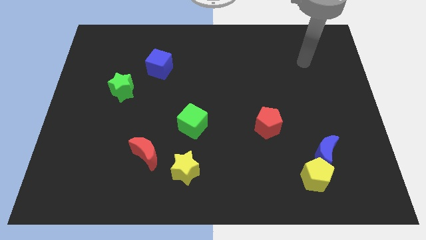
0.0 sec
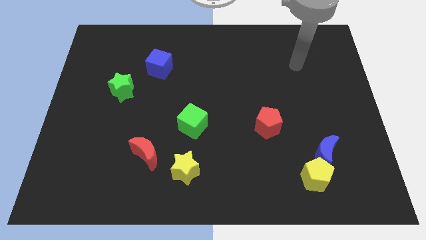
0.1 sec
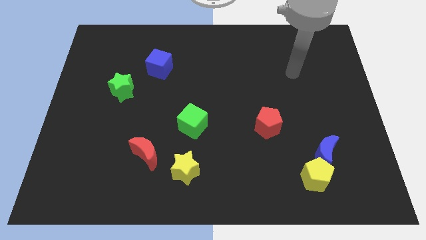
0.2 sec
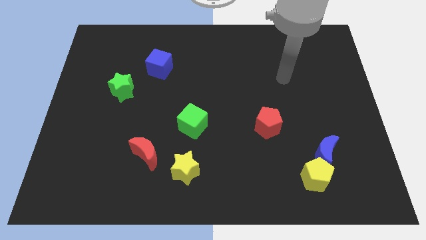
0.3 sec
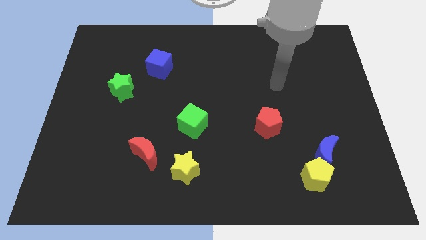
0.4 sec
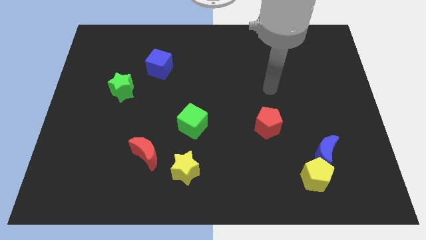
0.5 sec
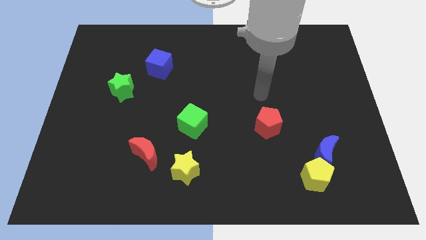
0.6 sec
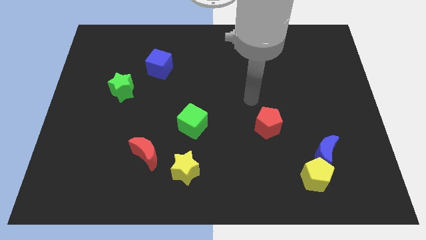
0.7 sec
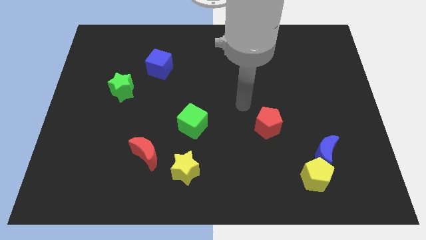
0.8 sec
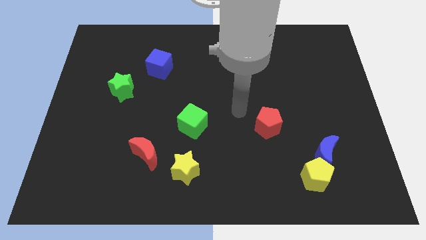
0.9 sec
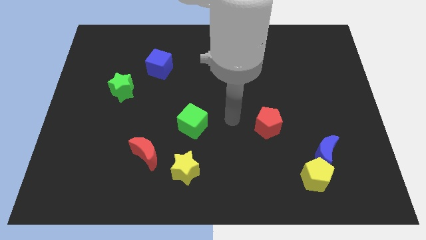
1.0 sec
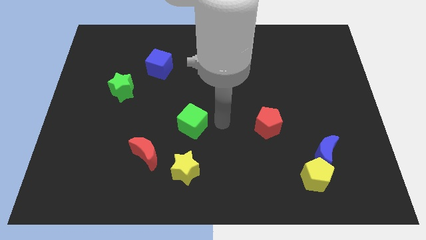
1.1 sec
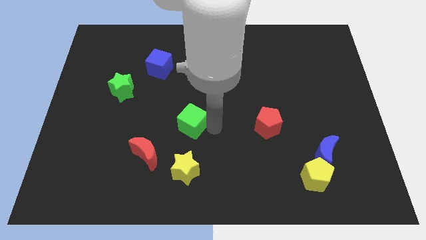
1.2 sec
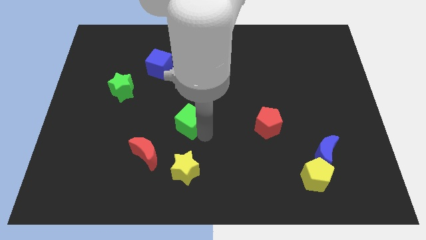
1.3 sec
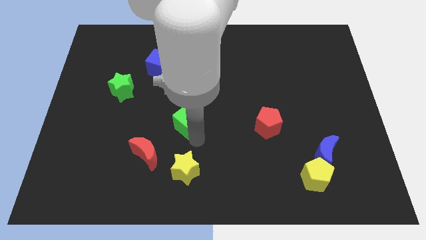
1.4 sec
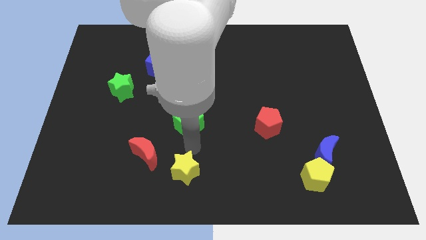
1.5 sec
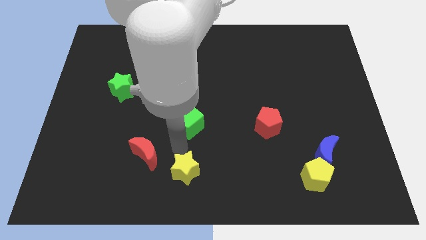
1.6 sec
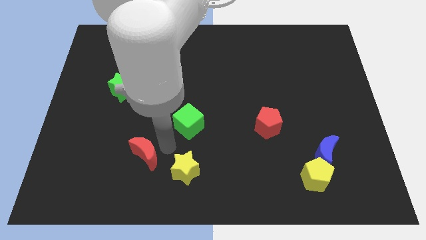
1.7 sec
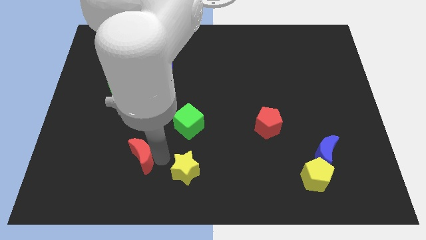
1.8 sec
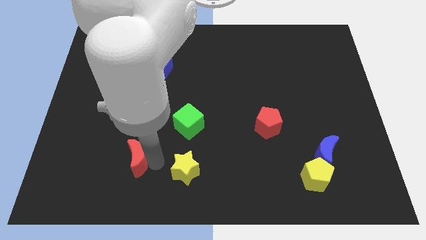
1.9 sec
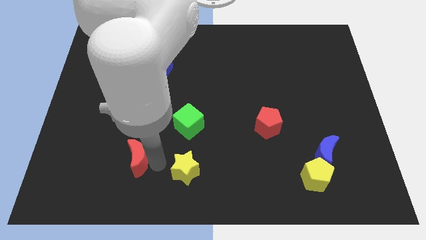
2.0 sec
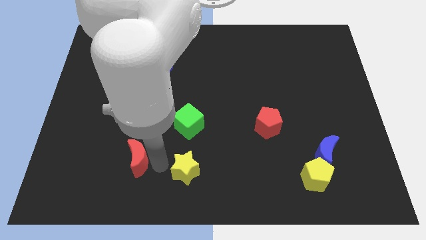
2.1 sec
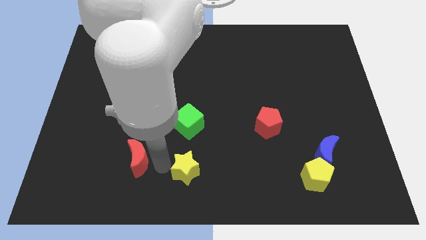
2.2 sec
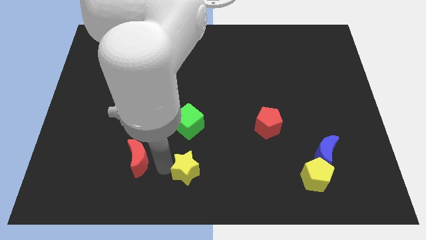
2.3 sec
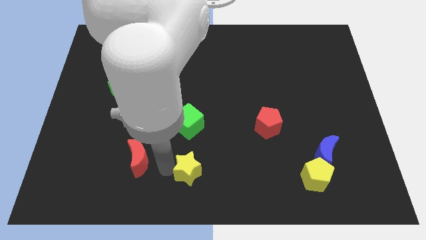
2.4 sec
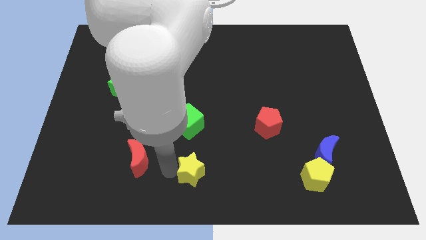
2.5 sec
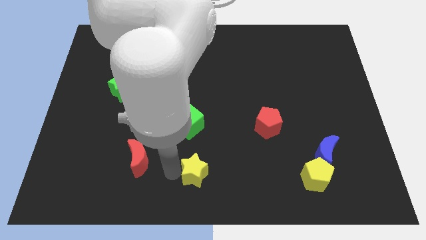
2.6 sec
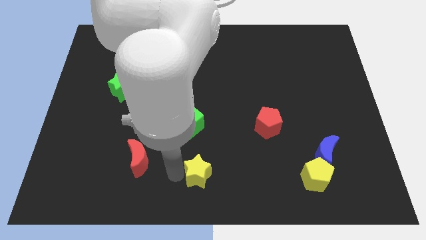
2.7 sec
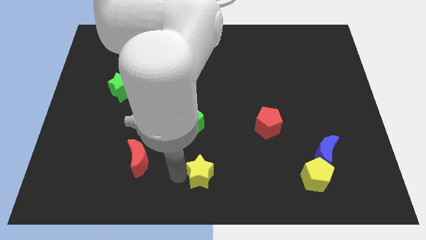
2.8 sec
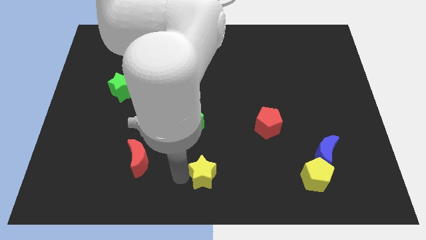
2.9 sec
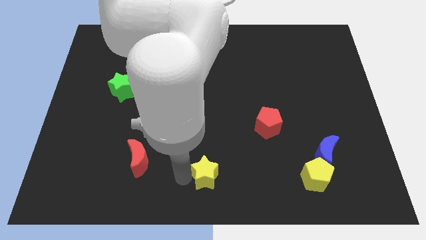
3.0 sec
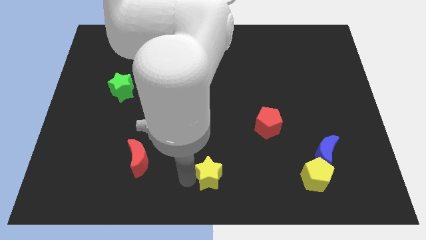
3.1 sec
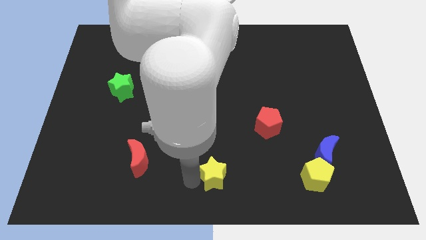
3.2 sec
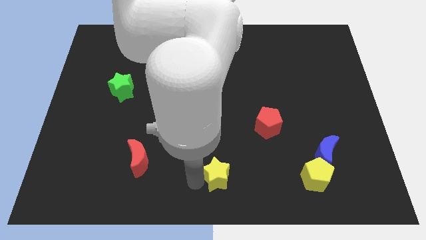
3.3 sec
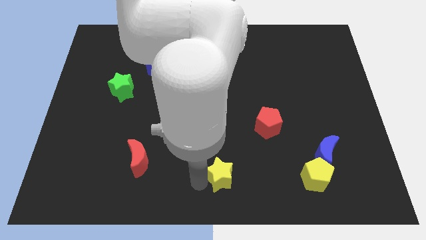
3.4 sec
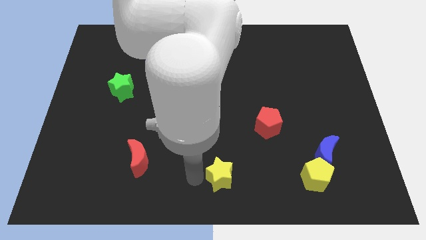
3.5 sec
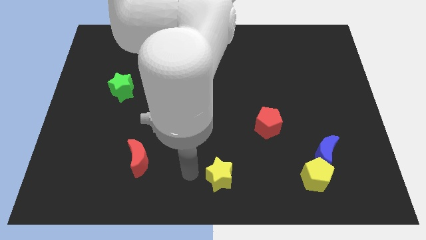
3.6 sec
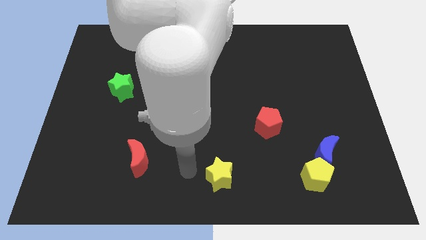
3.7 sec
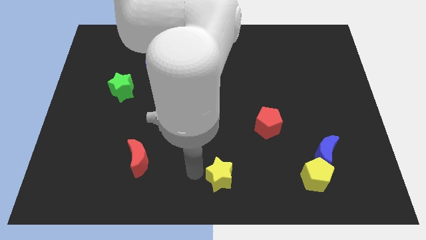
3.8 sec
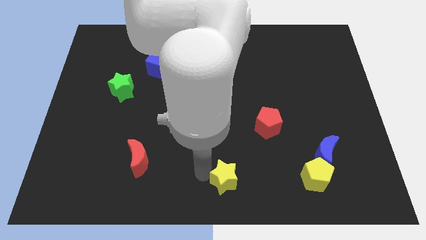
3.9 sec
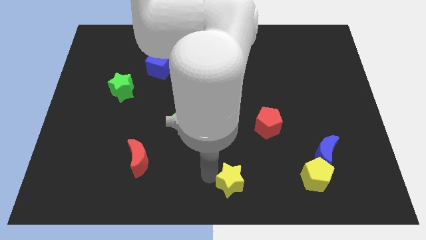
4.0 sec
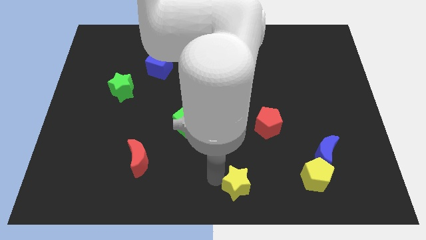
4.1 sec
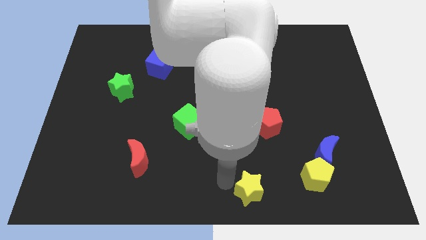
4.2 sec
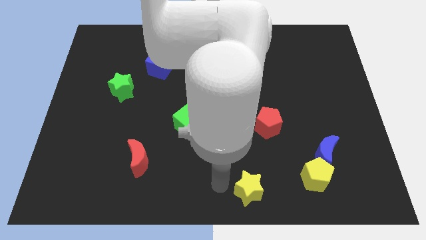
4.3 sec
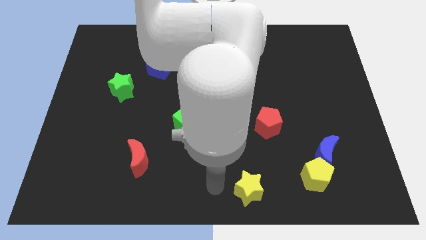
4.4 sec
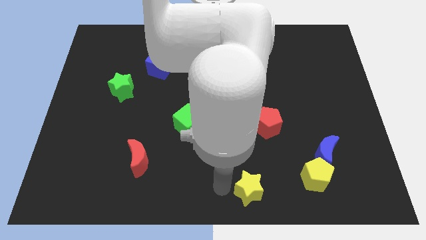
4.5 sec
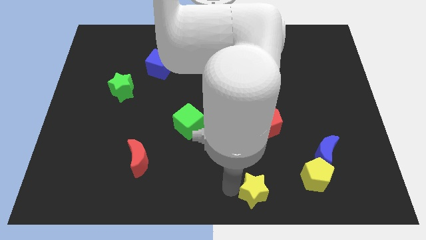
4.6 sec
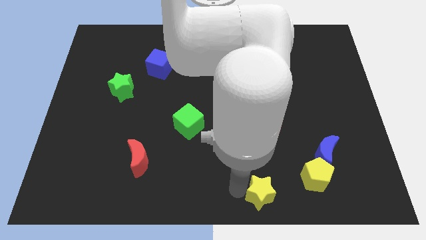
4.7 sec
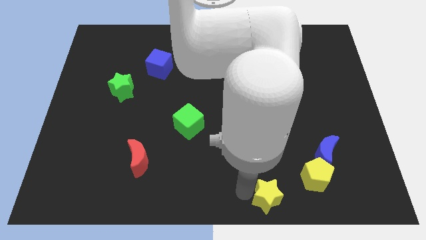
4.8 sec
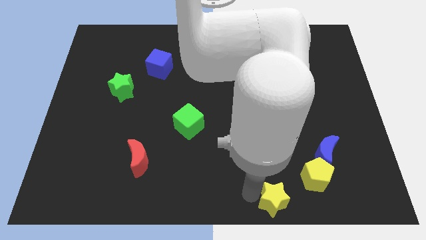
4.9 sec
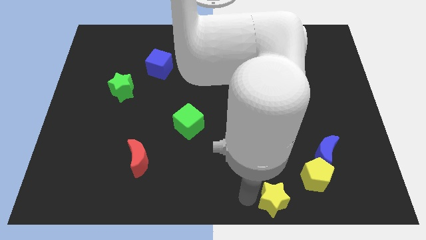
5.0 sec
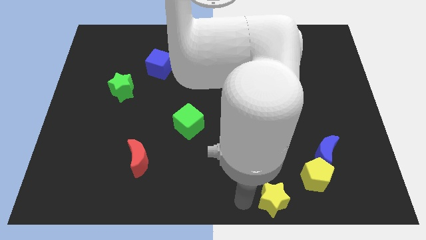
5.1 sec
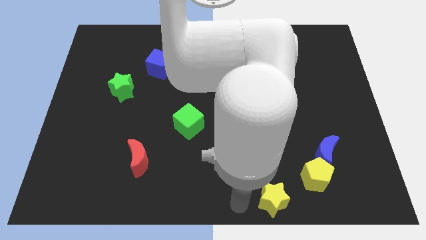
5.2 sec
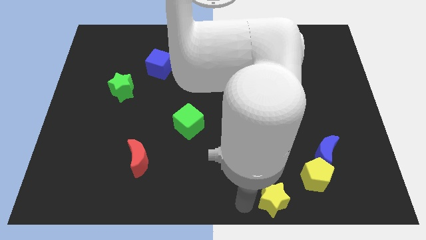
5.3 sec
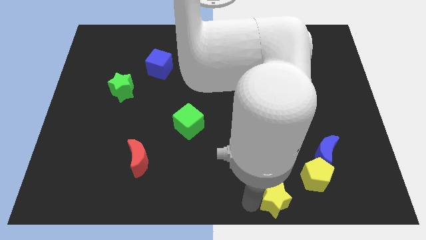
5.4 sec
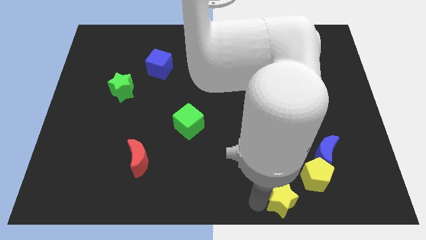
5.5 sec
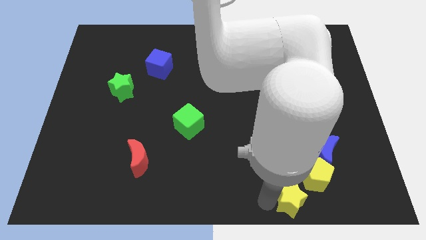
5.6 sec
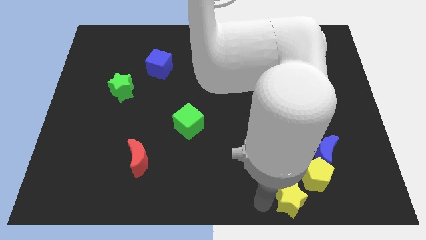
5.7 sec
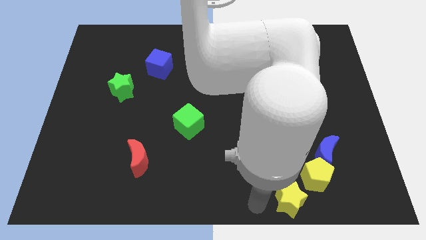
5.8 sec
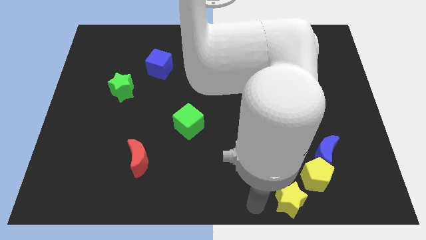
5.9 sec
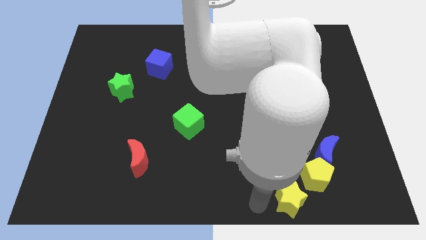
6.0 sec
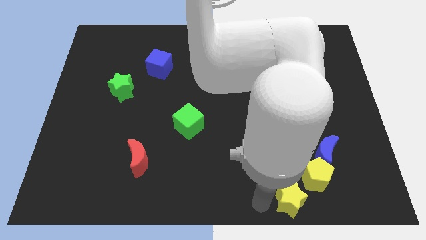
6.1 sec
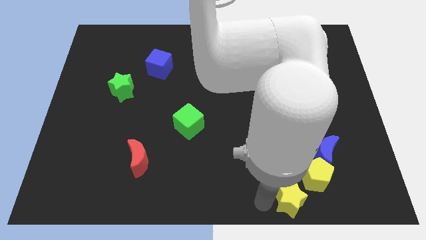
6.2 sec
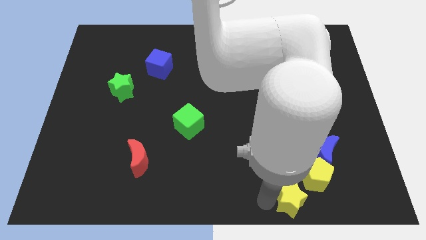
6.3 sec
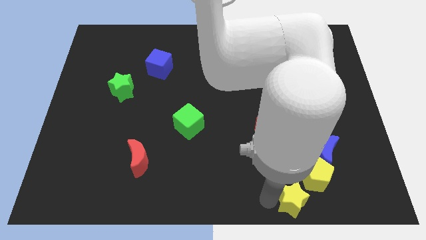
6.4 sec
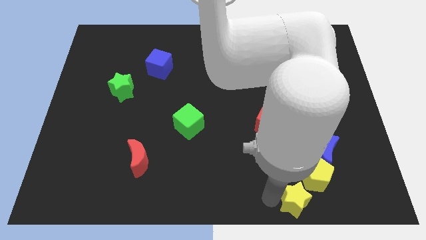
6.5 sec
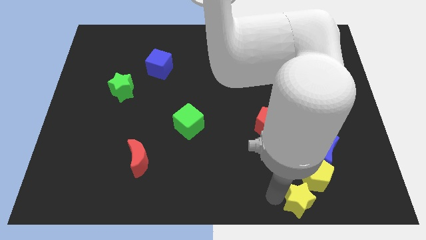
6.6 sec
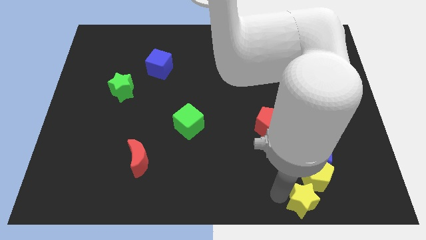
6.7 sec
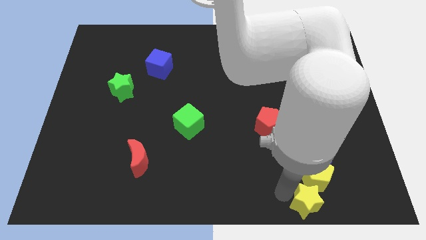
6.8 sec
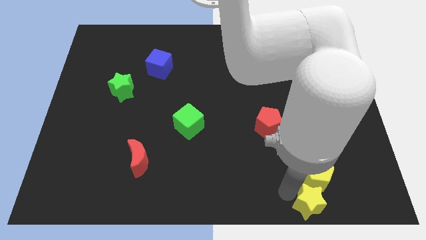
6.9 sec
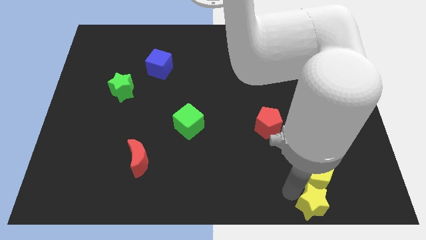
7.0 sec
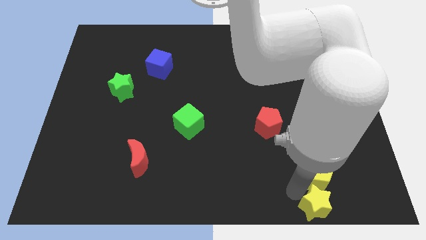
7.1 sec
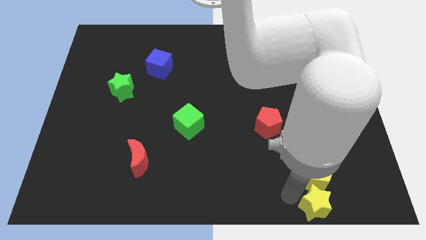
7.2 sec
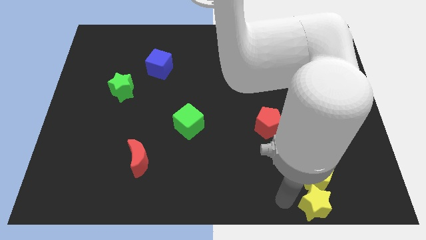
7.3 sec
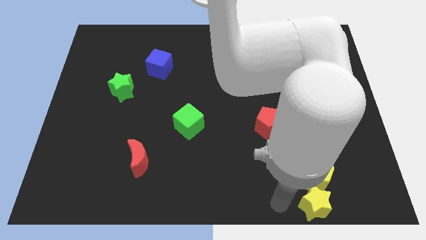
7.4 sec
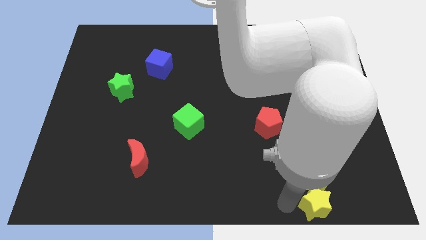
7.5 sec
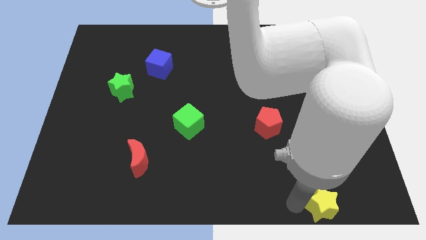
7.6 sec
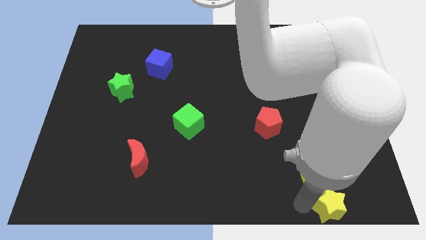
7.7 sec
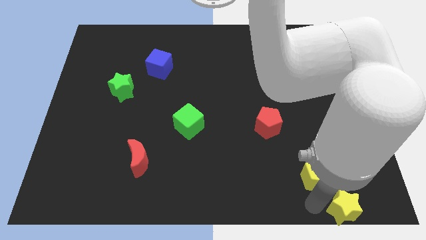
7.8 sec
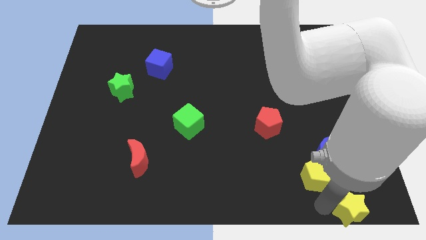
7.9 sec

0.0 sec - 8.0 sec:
slide the yellow star to the bottom right
